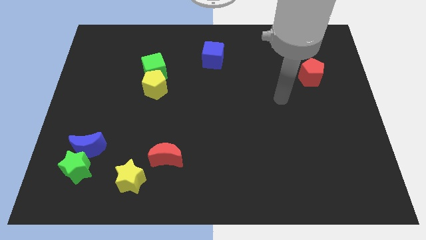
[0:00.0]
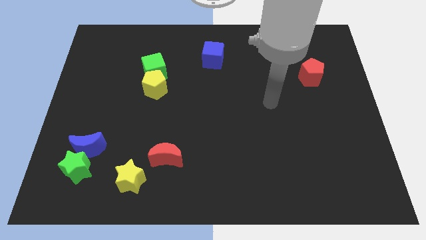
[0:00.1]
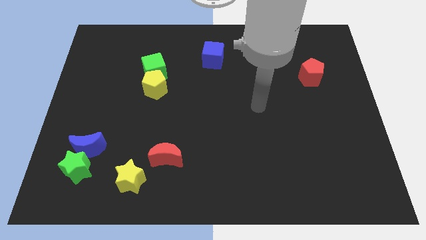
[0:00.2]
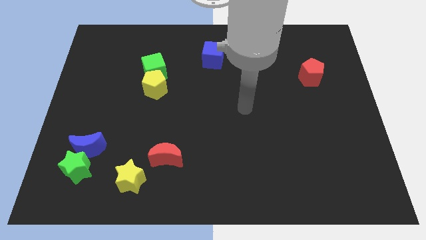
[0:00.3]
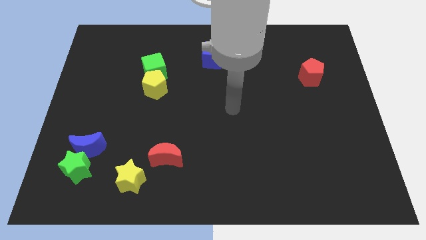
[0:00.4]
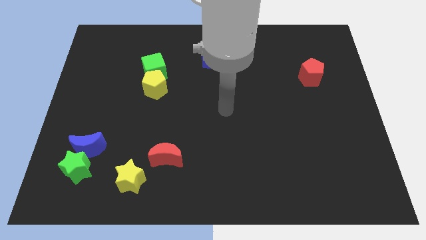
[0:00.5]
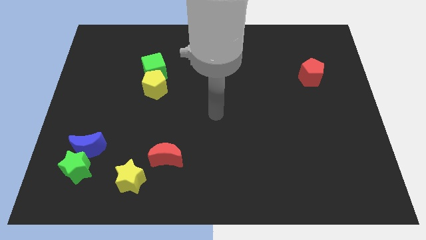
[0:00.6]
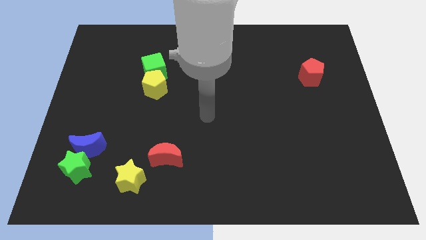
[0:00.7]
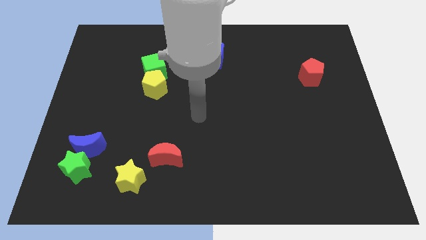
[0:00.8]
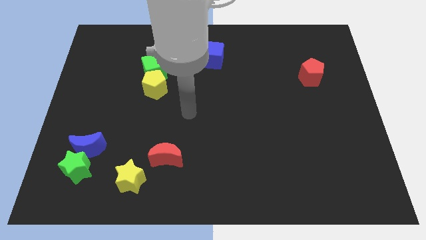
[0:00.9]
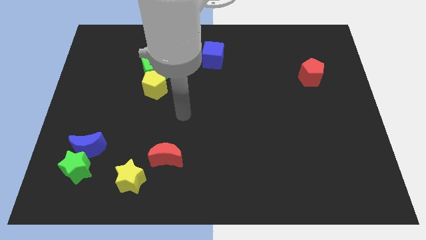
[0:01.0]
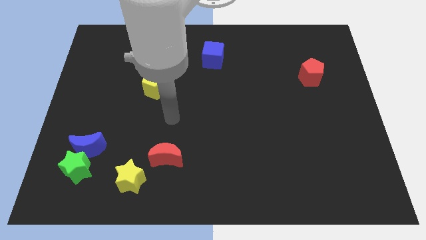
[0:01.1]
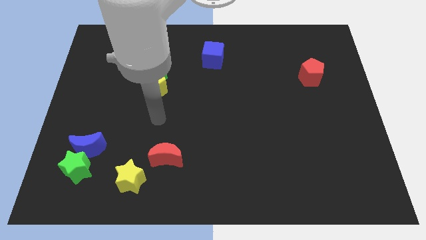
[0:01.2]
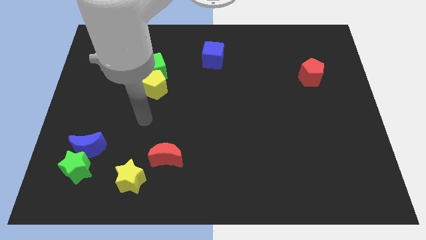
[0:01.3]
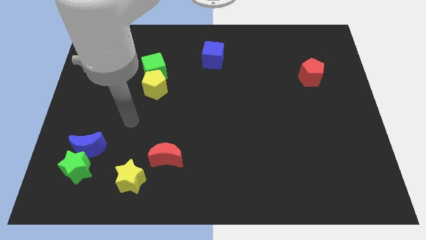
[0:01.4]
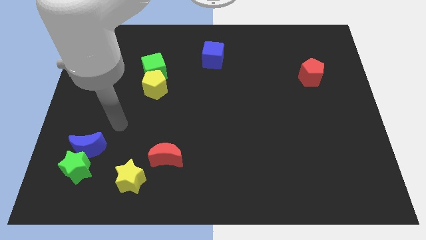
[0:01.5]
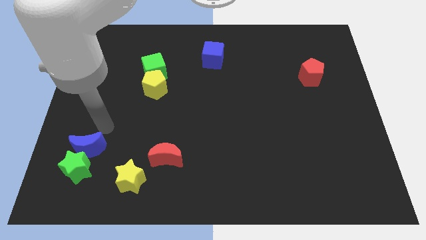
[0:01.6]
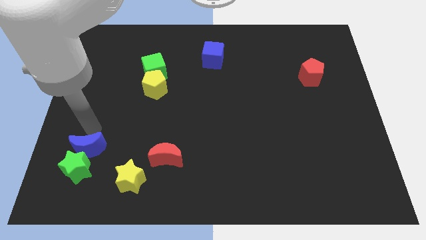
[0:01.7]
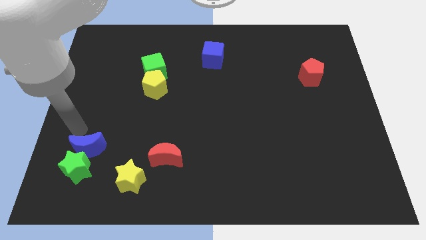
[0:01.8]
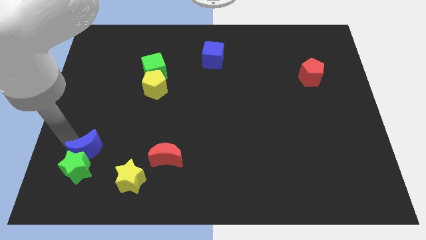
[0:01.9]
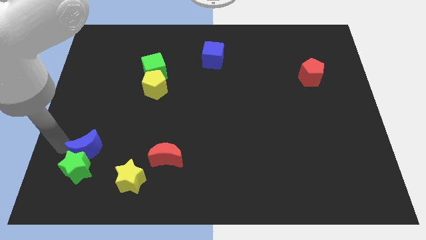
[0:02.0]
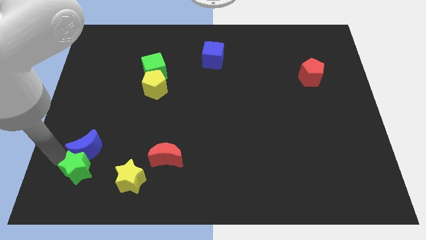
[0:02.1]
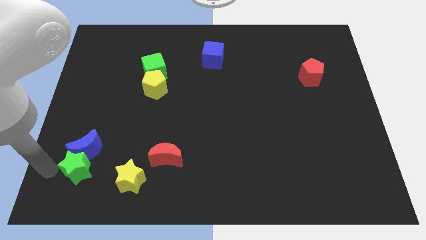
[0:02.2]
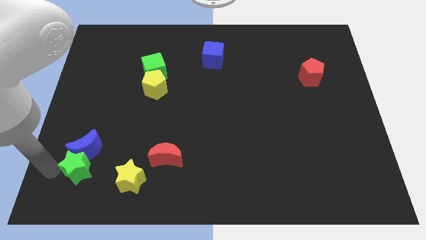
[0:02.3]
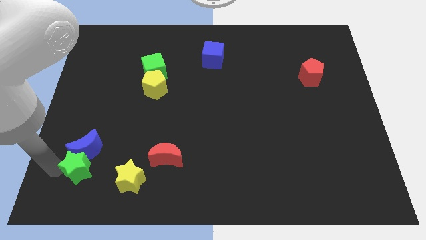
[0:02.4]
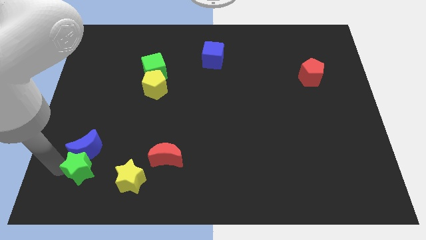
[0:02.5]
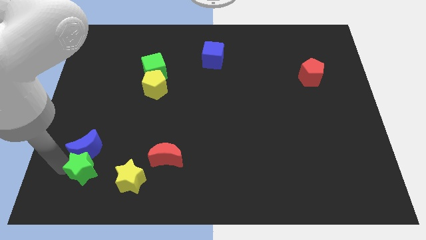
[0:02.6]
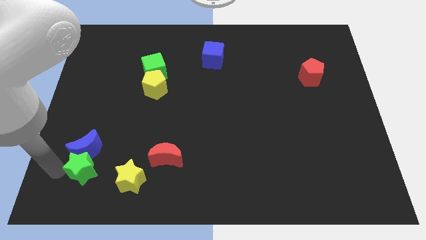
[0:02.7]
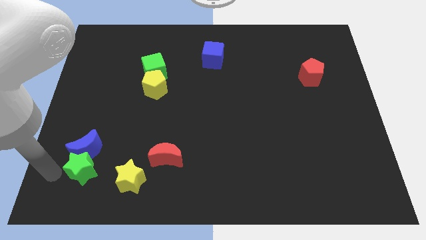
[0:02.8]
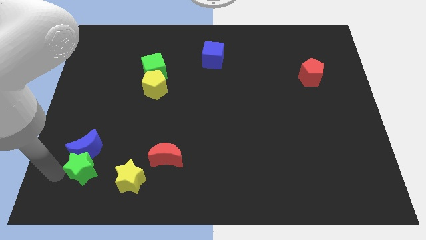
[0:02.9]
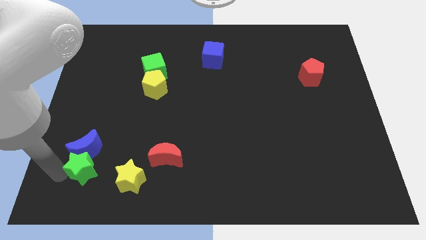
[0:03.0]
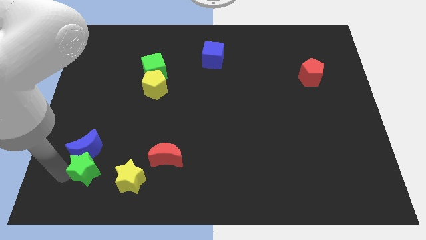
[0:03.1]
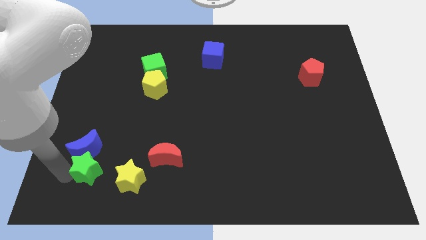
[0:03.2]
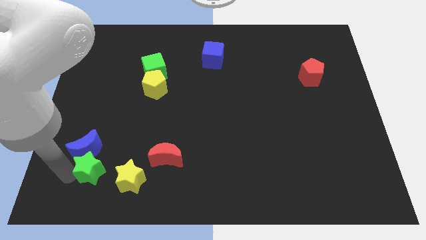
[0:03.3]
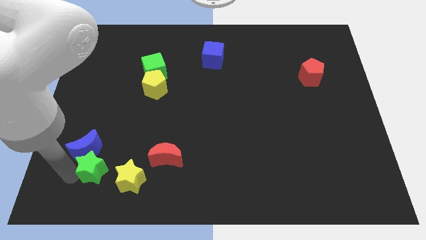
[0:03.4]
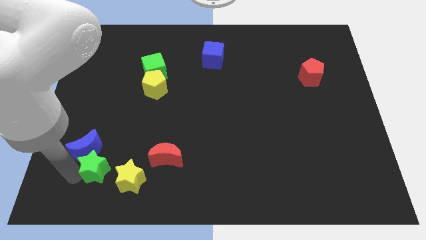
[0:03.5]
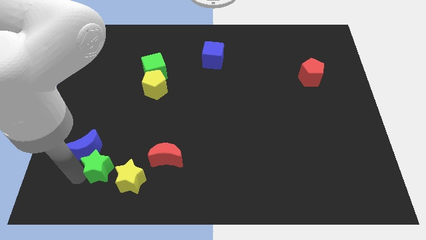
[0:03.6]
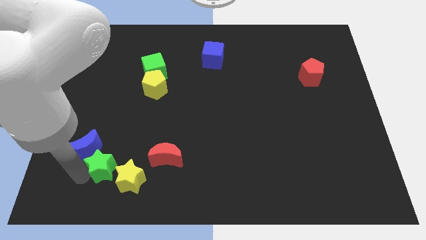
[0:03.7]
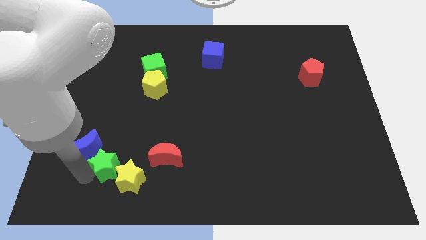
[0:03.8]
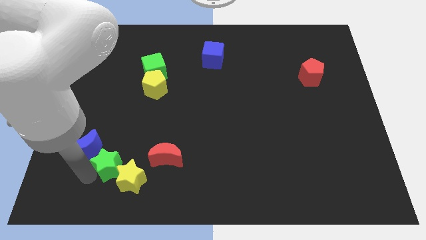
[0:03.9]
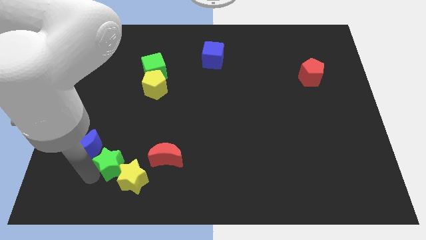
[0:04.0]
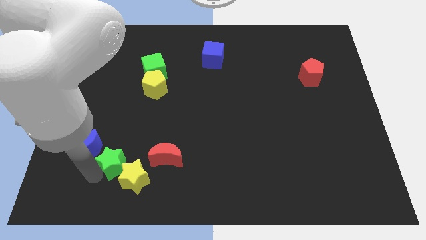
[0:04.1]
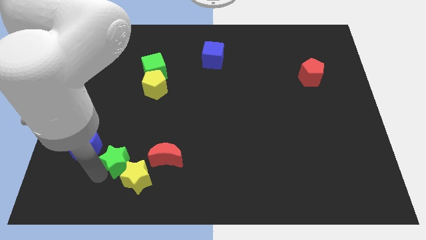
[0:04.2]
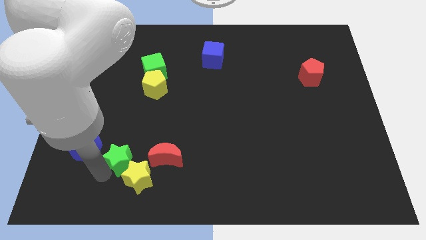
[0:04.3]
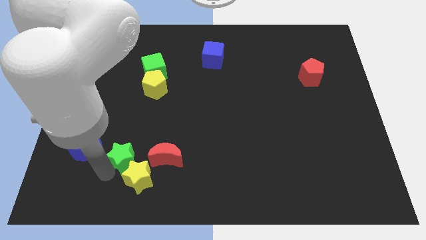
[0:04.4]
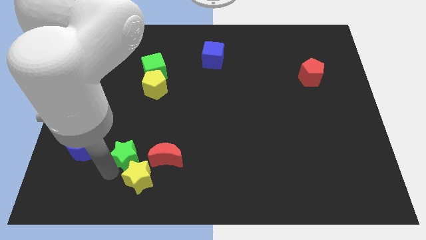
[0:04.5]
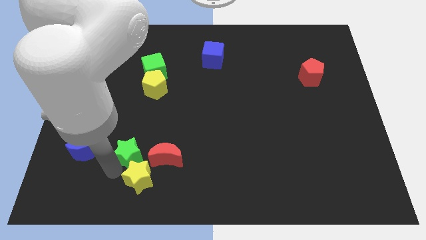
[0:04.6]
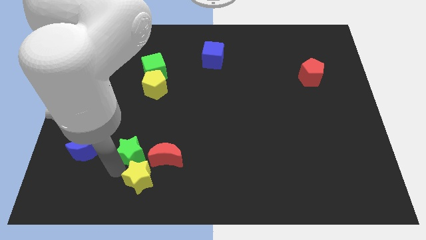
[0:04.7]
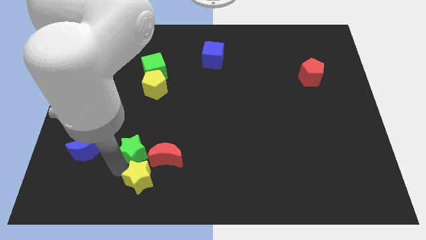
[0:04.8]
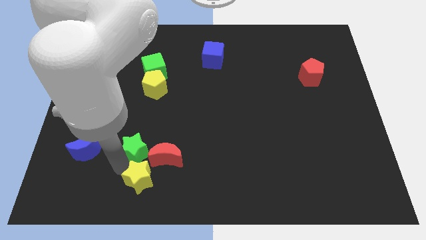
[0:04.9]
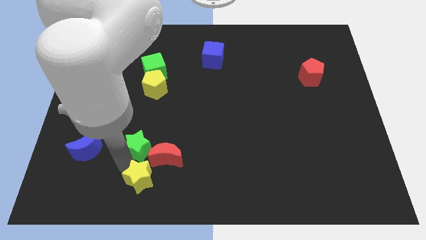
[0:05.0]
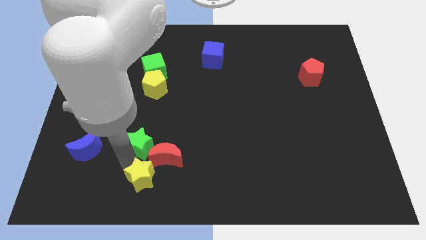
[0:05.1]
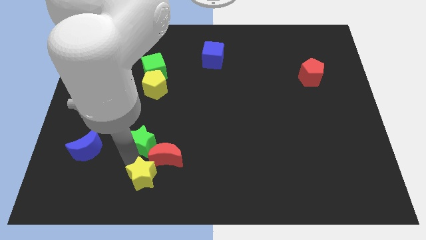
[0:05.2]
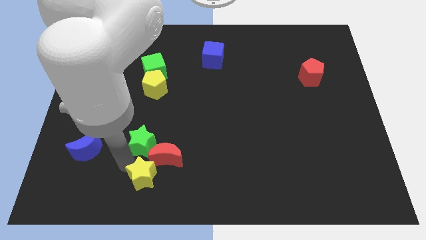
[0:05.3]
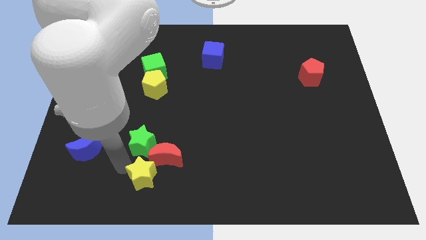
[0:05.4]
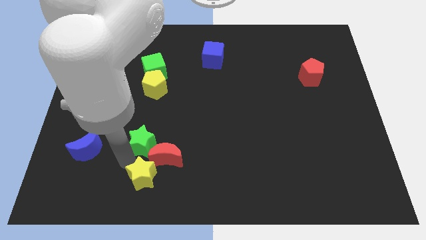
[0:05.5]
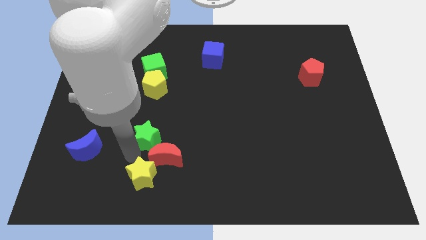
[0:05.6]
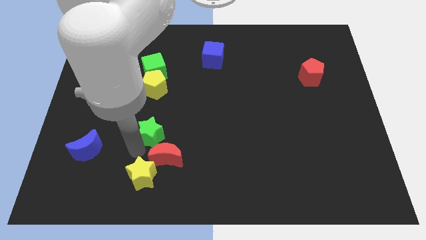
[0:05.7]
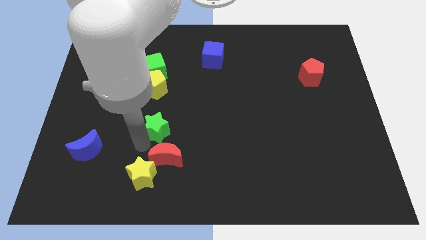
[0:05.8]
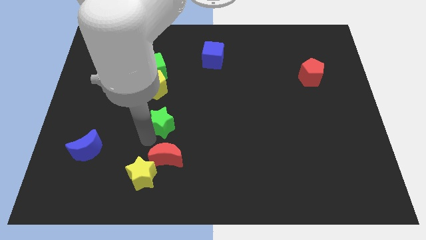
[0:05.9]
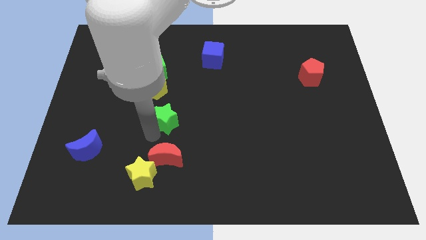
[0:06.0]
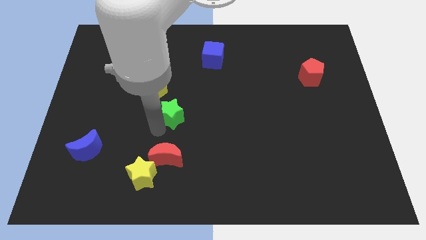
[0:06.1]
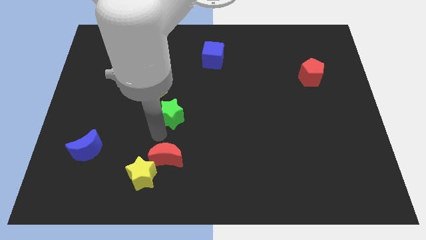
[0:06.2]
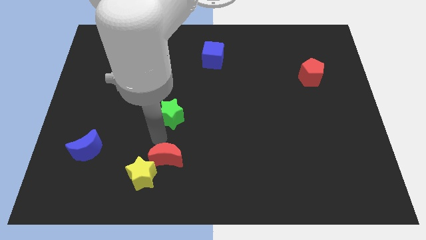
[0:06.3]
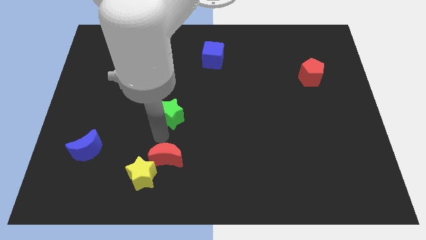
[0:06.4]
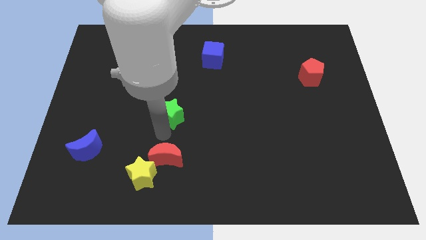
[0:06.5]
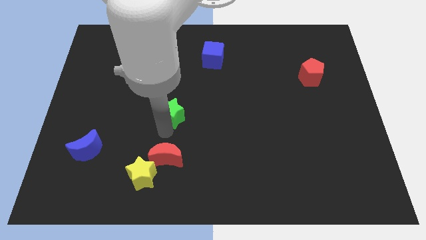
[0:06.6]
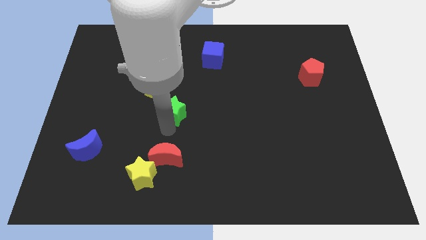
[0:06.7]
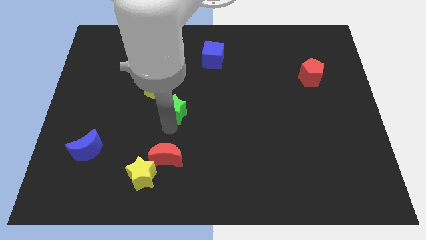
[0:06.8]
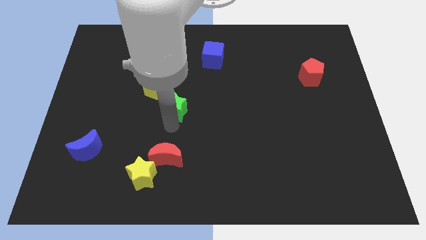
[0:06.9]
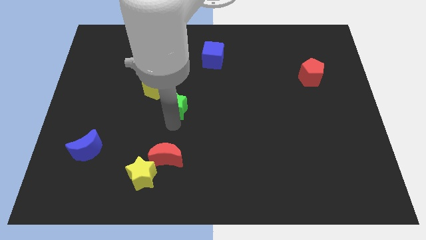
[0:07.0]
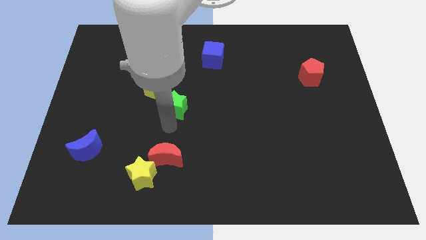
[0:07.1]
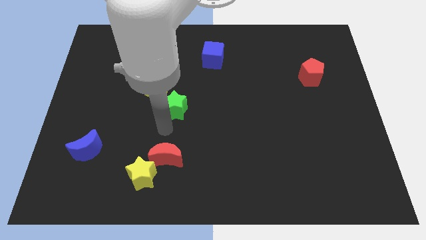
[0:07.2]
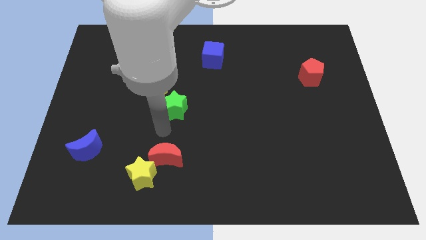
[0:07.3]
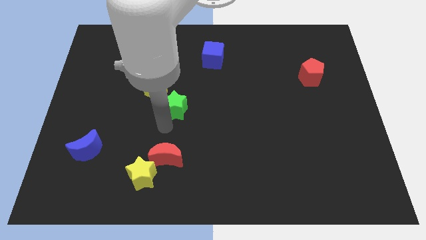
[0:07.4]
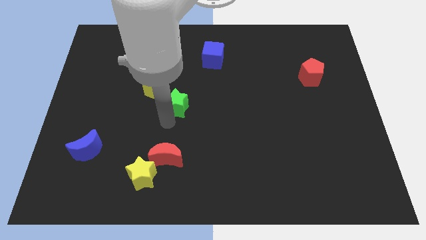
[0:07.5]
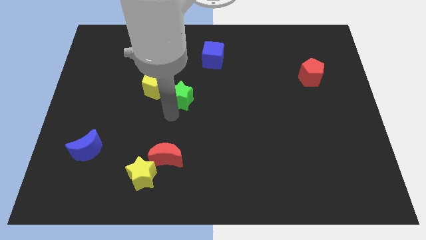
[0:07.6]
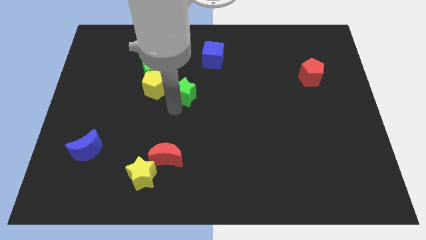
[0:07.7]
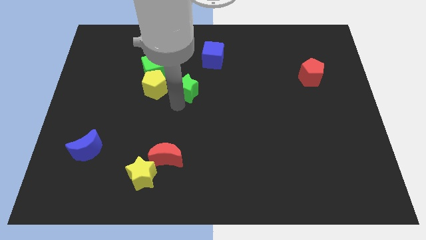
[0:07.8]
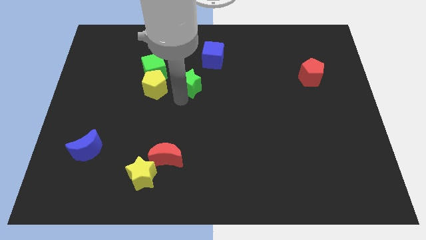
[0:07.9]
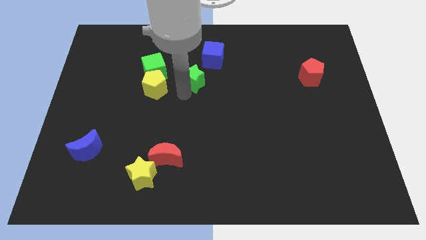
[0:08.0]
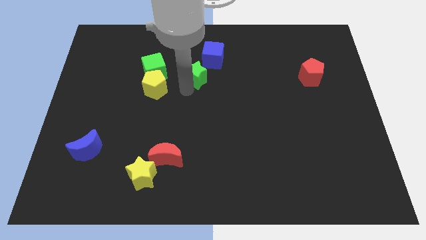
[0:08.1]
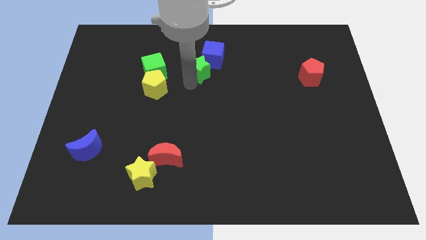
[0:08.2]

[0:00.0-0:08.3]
push the green star close to the blue cube
